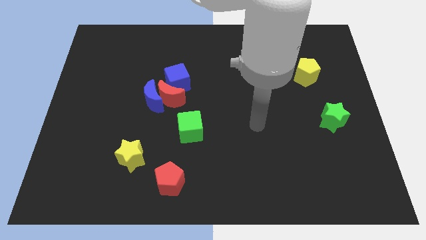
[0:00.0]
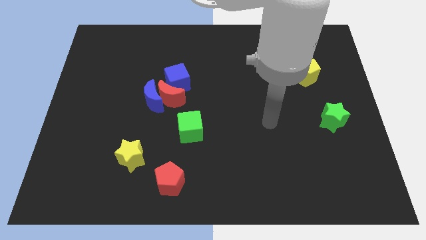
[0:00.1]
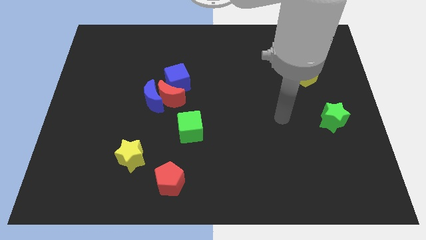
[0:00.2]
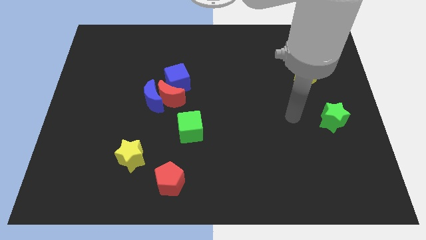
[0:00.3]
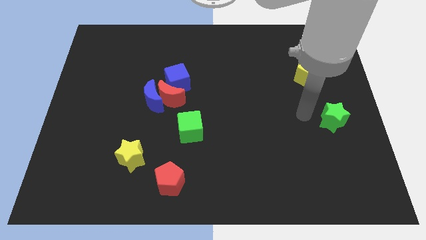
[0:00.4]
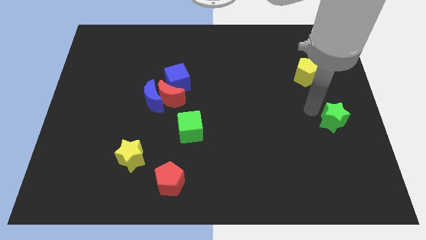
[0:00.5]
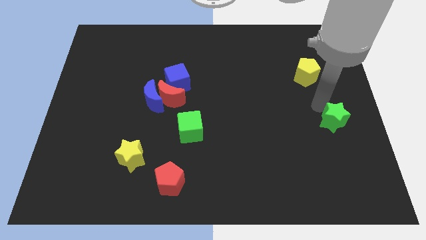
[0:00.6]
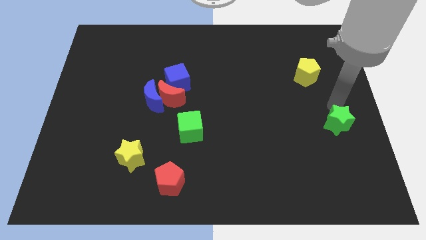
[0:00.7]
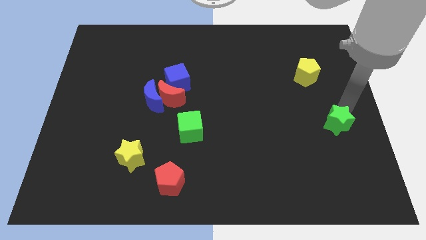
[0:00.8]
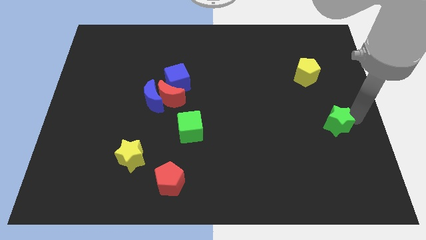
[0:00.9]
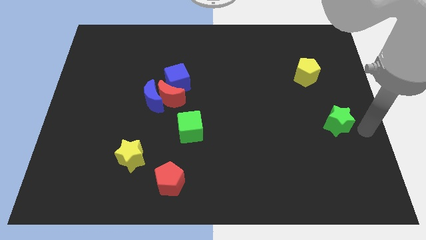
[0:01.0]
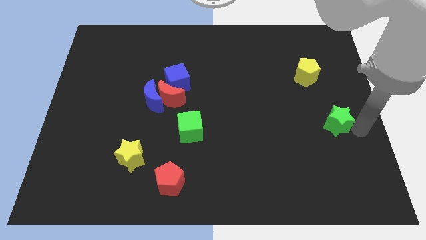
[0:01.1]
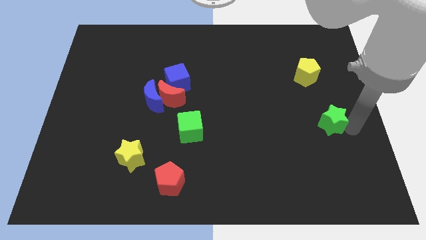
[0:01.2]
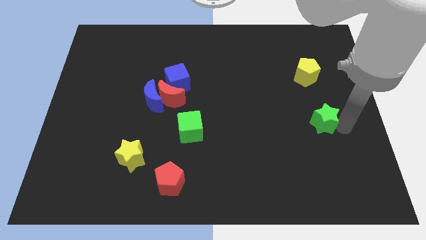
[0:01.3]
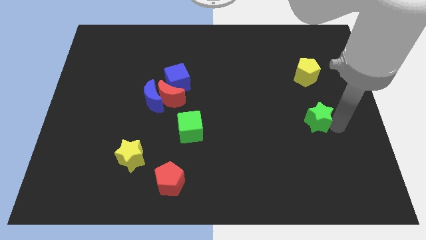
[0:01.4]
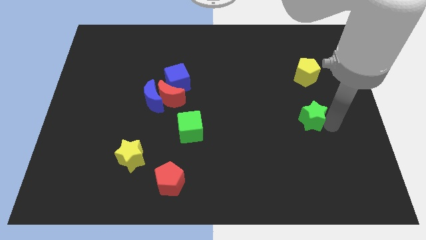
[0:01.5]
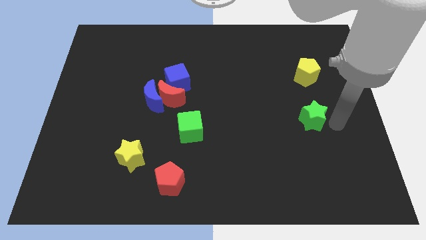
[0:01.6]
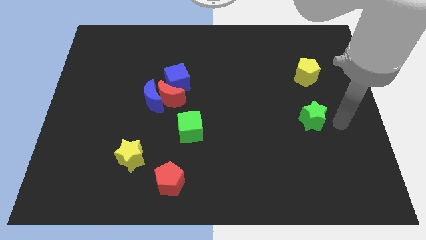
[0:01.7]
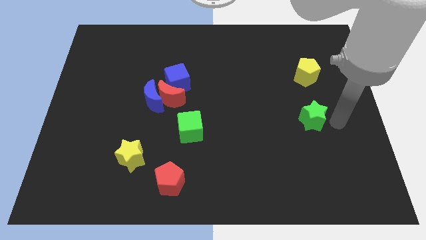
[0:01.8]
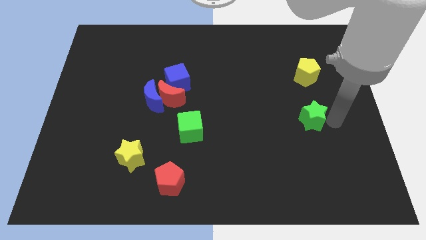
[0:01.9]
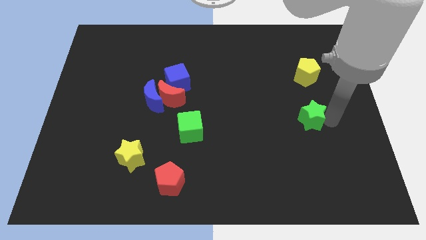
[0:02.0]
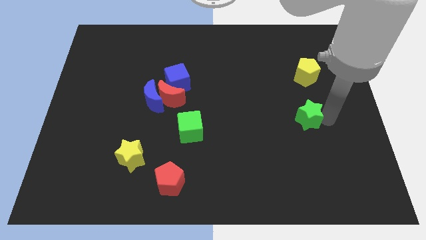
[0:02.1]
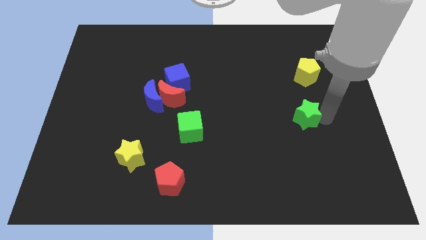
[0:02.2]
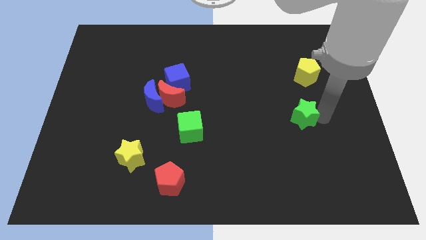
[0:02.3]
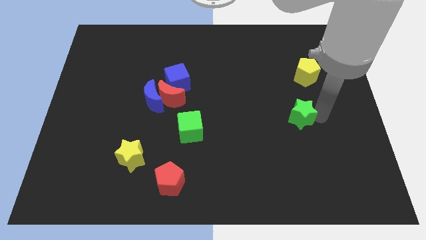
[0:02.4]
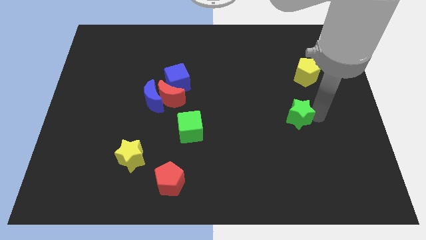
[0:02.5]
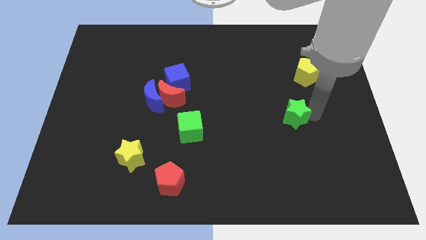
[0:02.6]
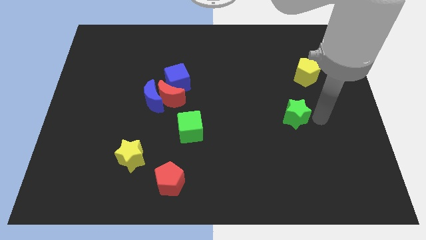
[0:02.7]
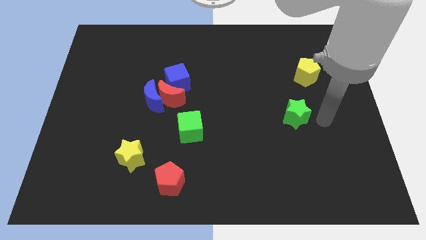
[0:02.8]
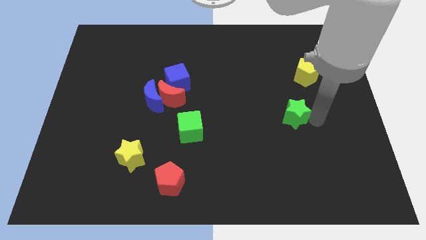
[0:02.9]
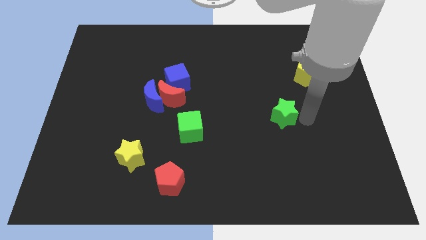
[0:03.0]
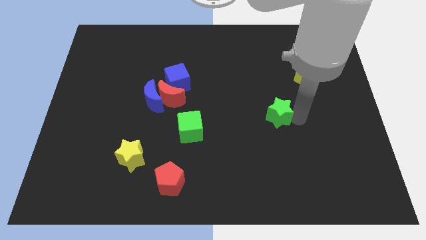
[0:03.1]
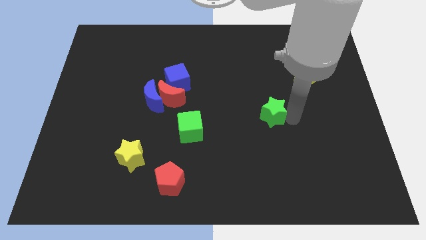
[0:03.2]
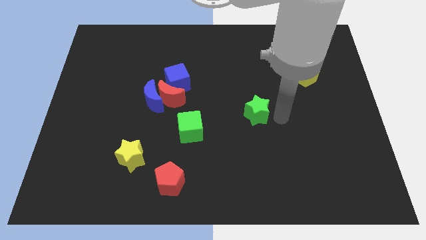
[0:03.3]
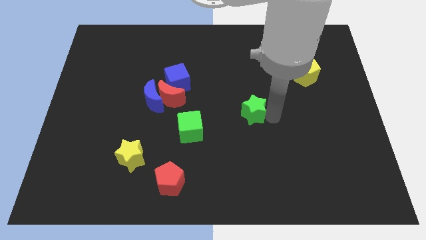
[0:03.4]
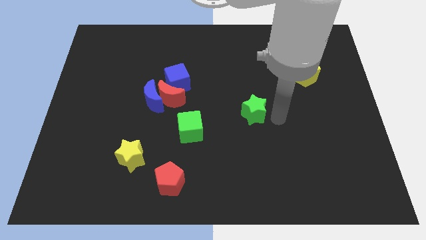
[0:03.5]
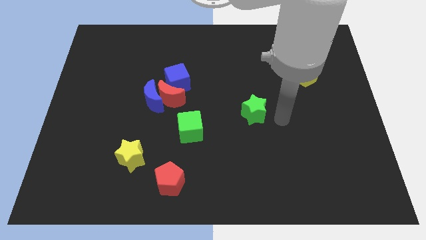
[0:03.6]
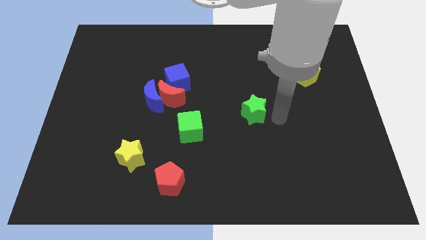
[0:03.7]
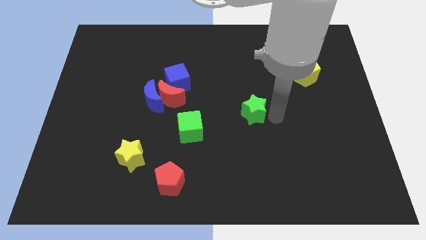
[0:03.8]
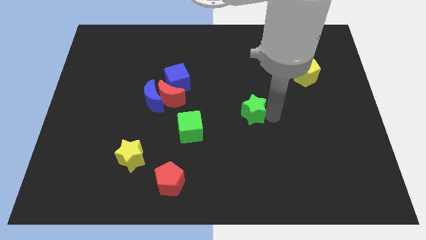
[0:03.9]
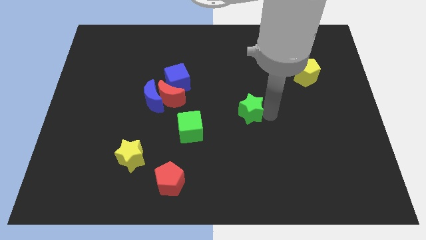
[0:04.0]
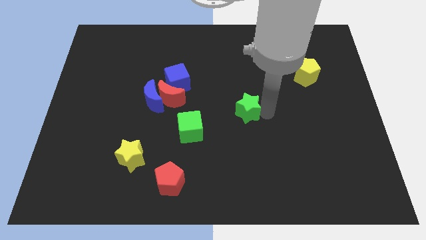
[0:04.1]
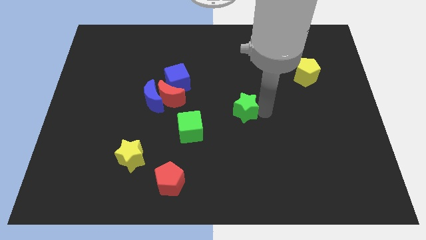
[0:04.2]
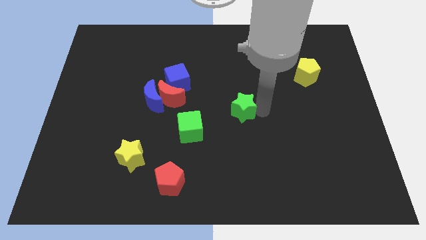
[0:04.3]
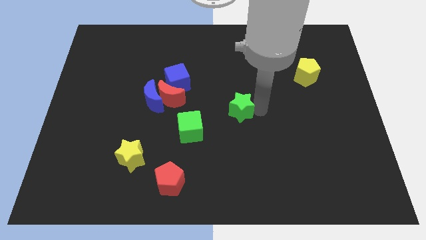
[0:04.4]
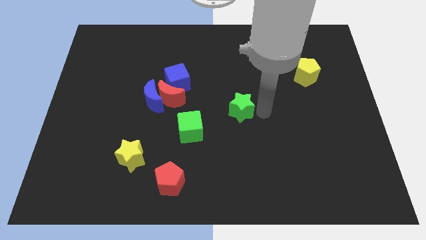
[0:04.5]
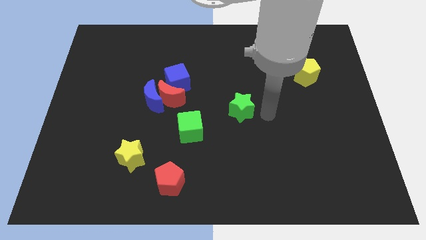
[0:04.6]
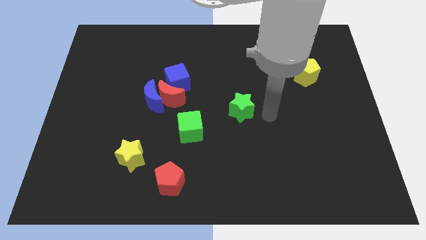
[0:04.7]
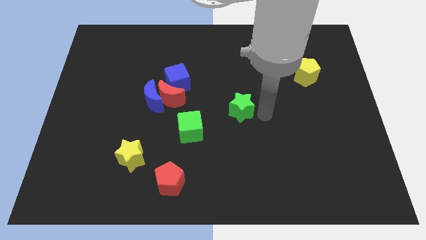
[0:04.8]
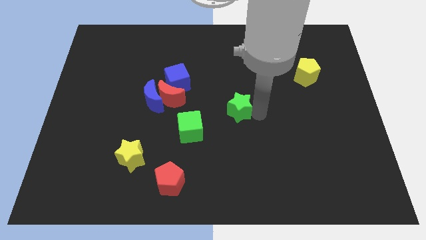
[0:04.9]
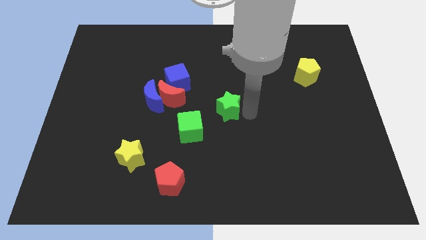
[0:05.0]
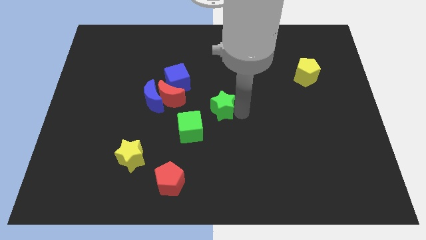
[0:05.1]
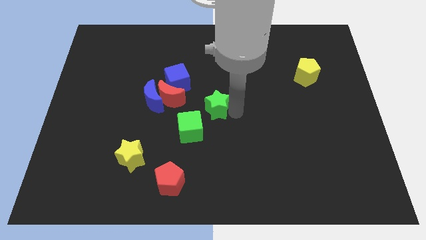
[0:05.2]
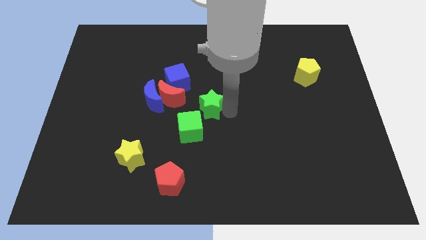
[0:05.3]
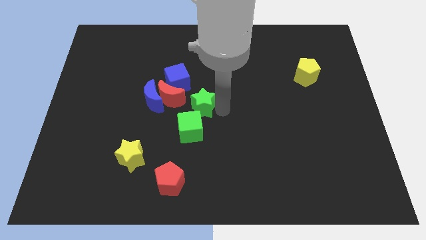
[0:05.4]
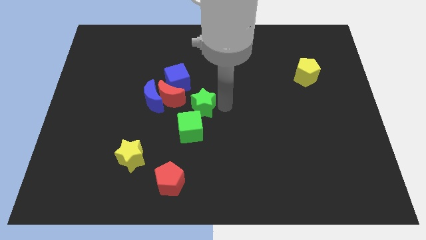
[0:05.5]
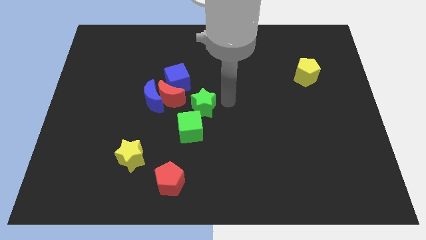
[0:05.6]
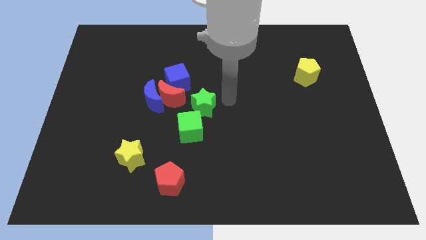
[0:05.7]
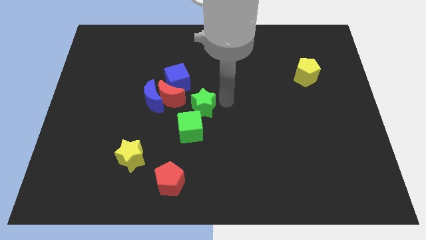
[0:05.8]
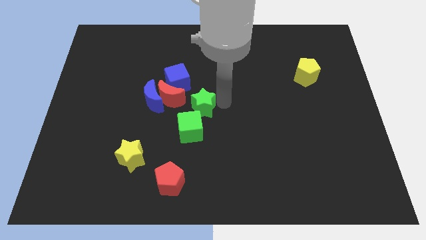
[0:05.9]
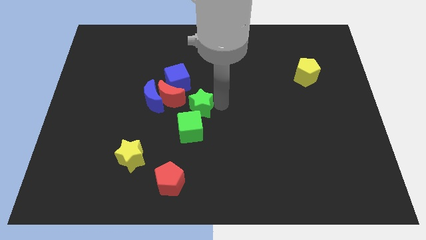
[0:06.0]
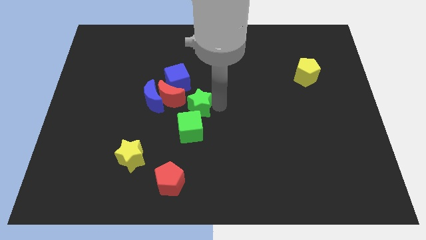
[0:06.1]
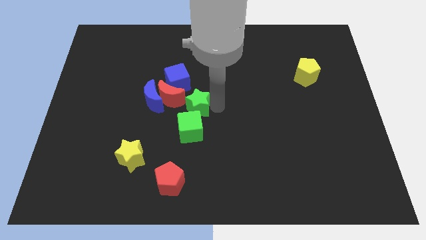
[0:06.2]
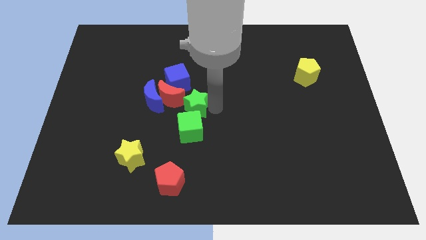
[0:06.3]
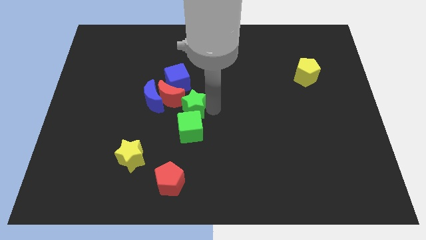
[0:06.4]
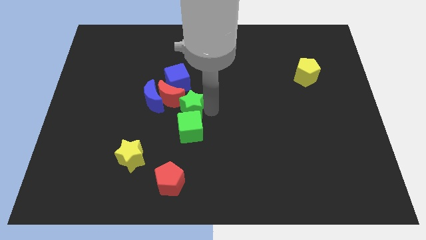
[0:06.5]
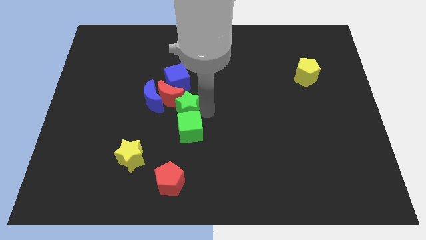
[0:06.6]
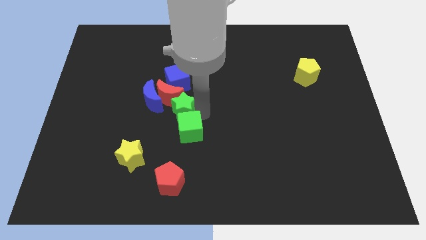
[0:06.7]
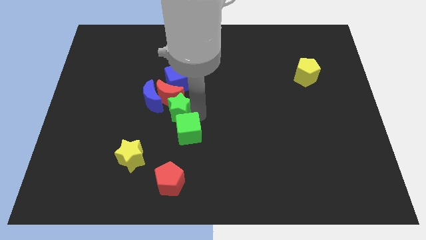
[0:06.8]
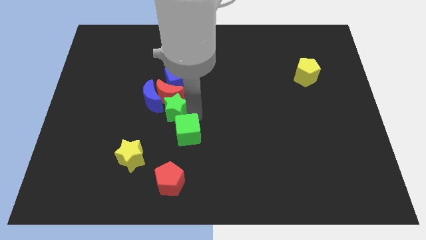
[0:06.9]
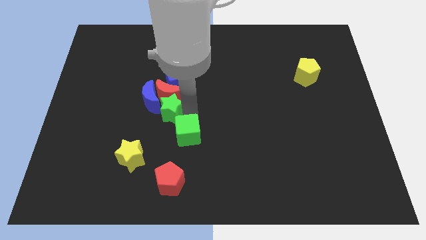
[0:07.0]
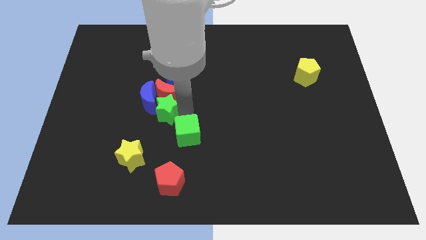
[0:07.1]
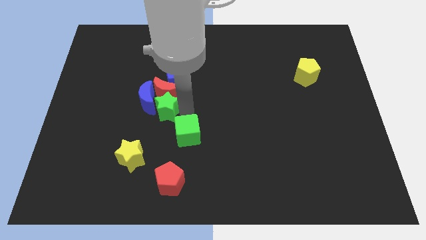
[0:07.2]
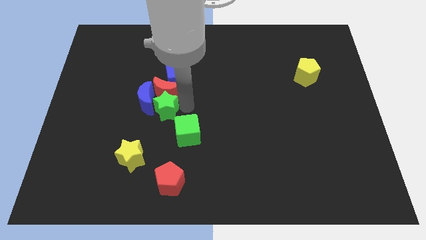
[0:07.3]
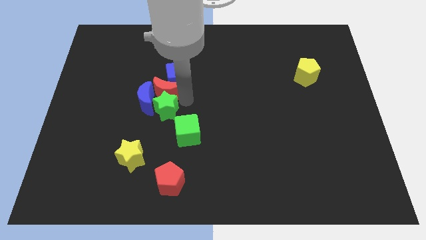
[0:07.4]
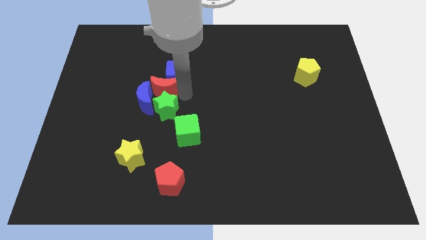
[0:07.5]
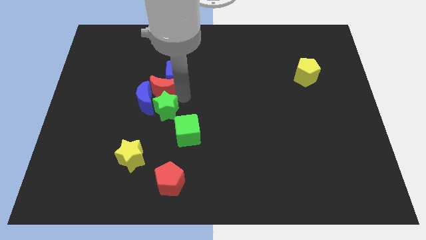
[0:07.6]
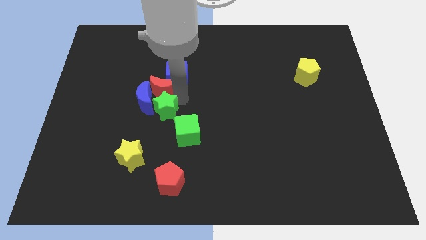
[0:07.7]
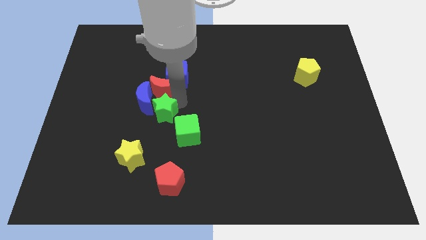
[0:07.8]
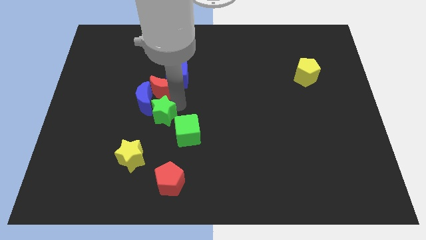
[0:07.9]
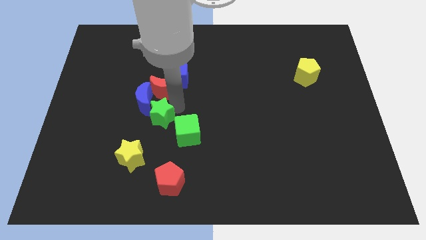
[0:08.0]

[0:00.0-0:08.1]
push the green star to the left side of the green cube
